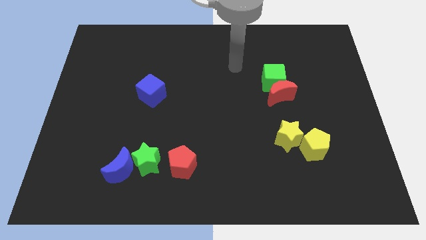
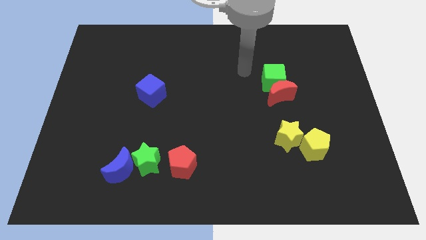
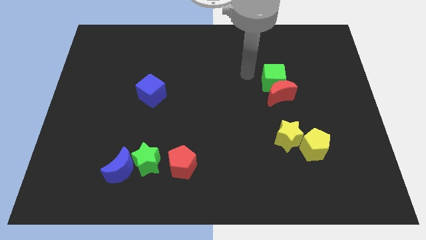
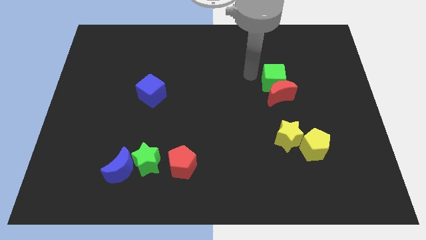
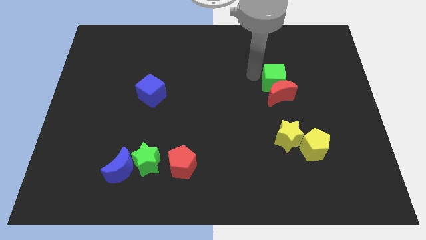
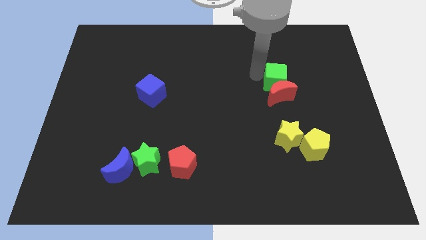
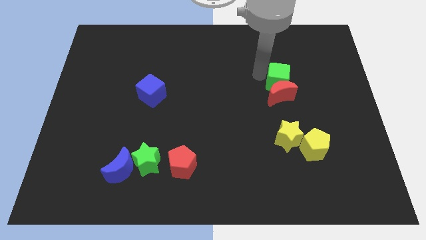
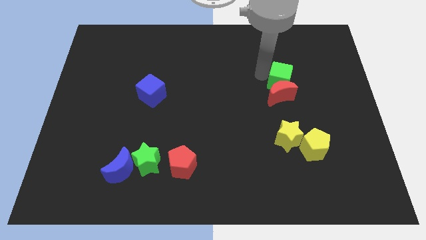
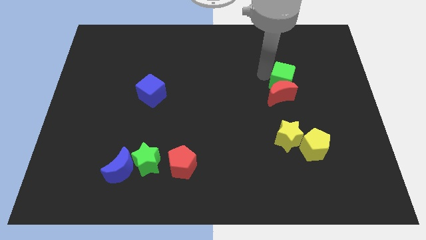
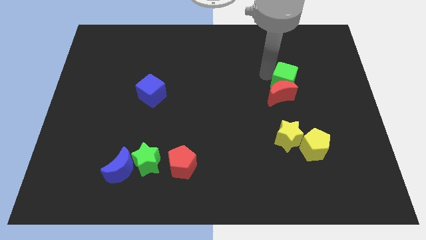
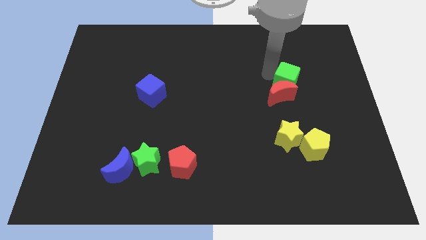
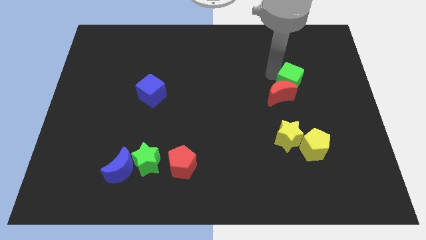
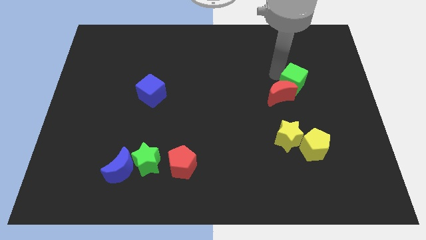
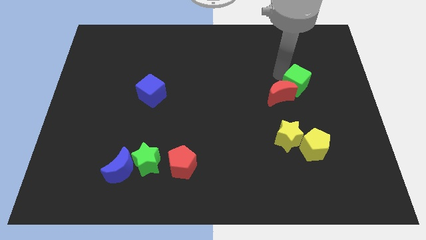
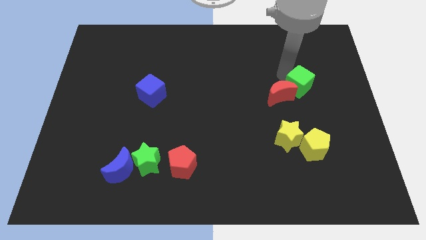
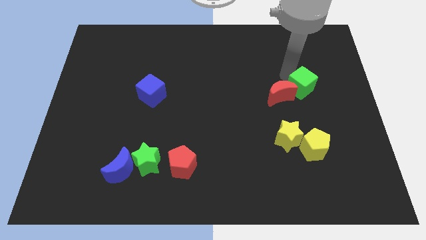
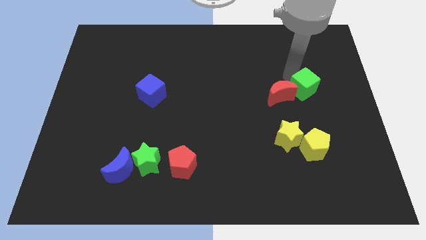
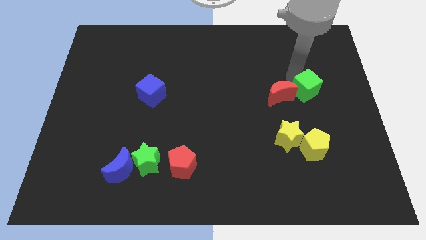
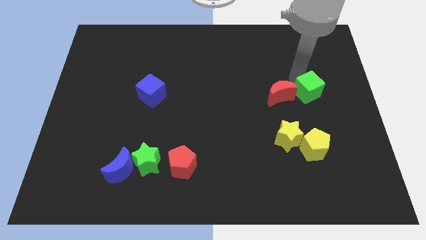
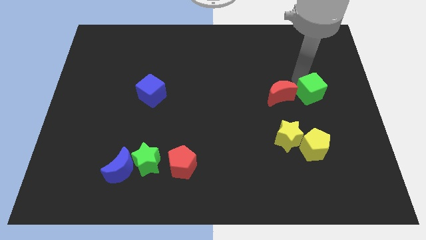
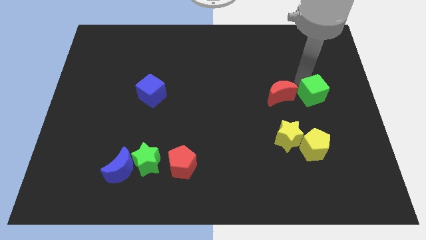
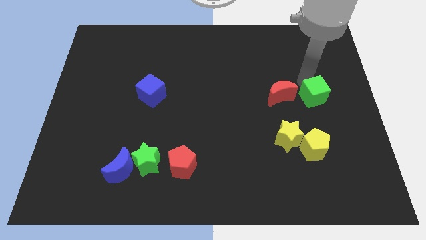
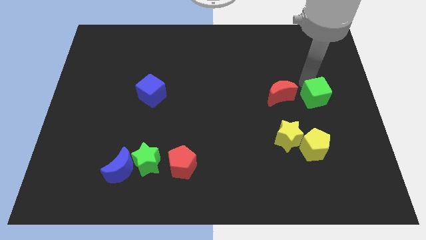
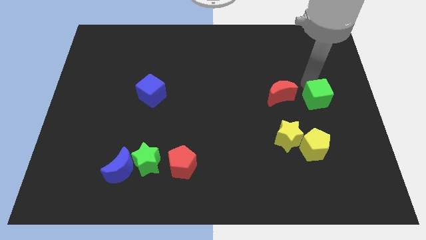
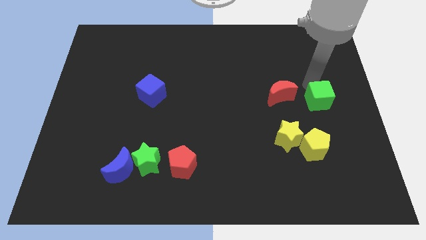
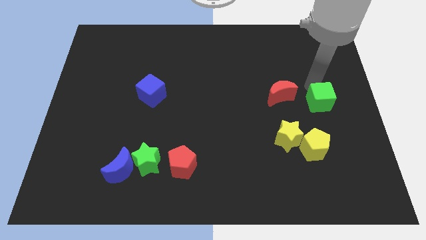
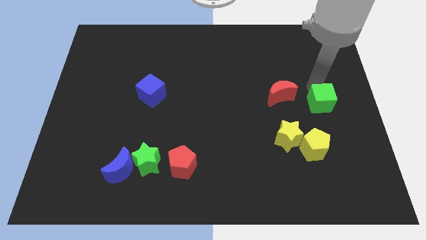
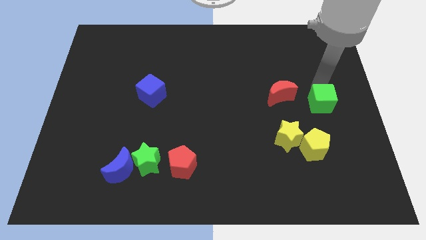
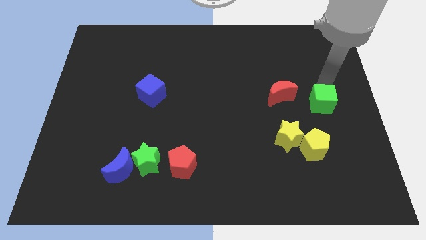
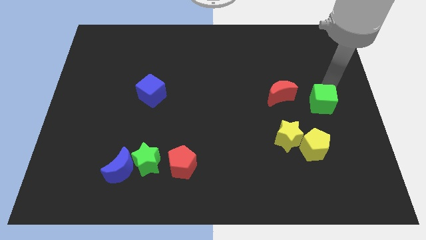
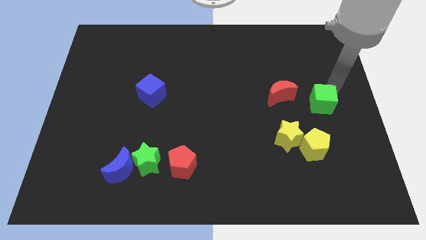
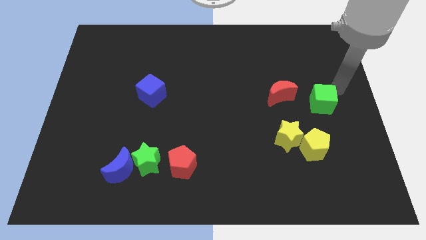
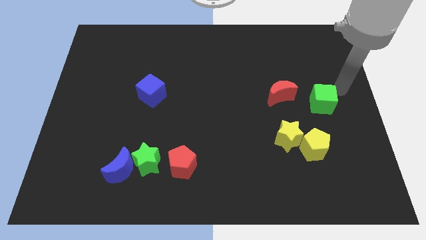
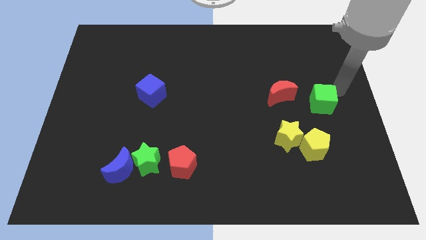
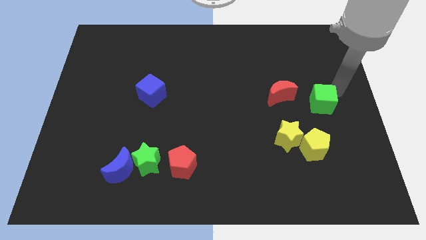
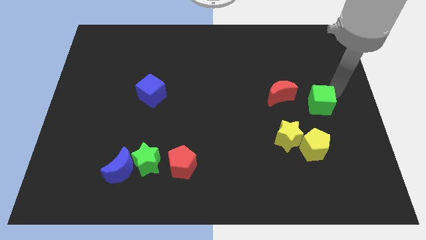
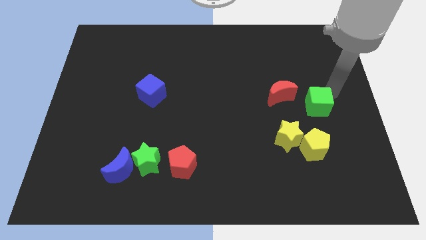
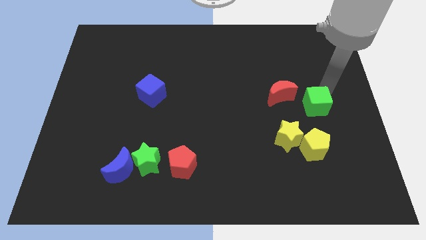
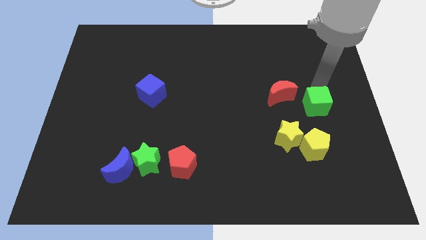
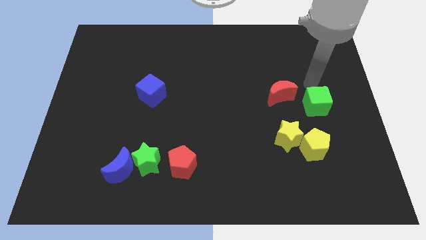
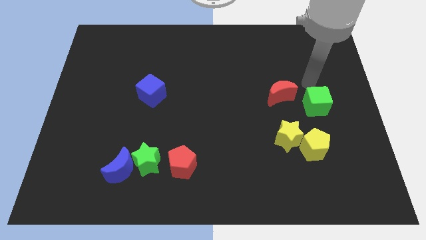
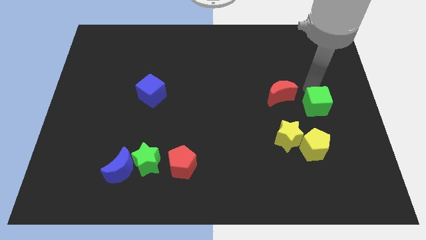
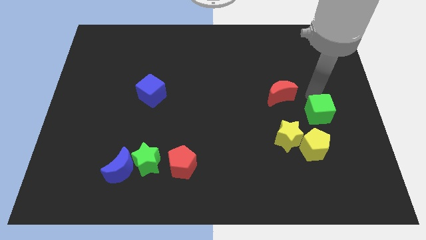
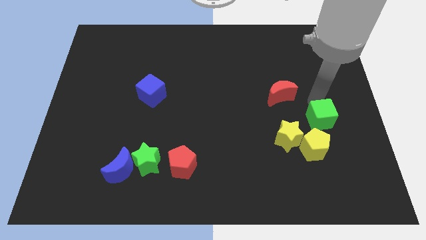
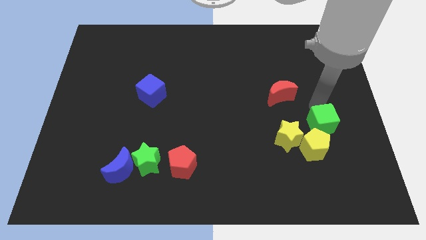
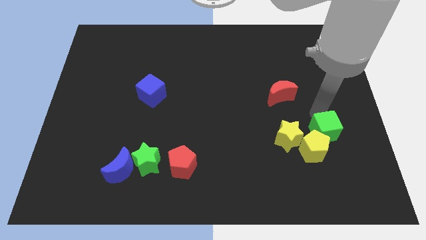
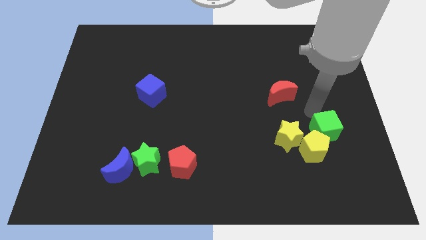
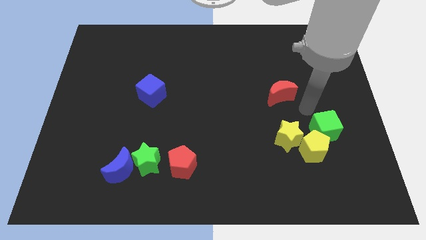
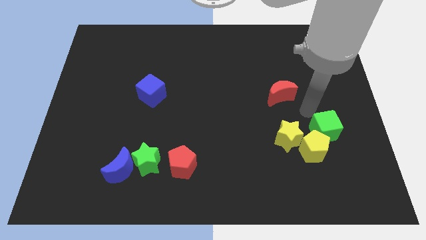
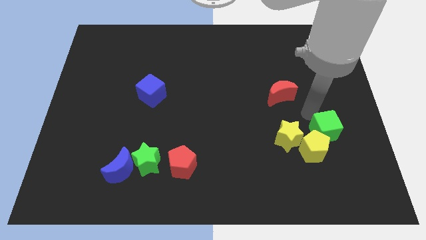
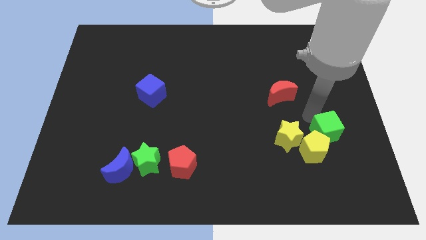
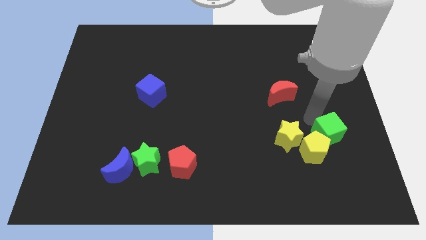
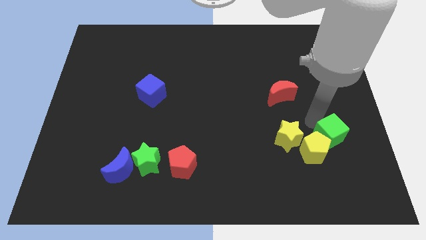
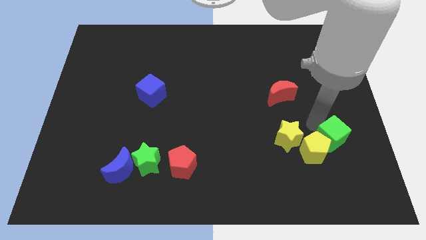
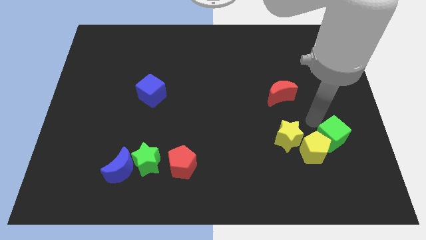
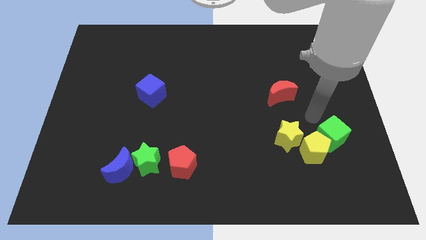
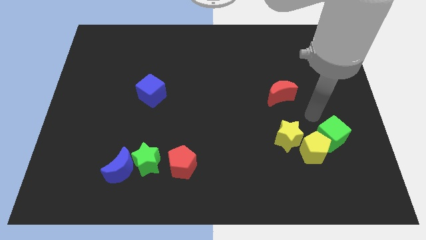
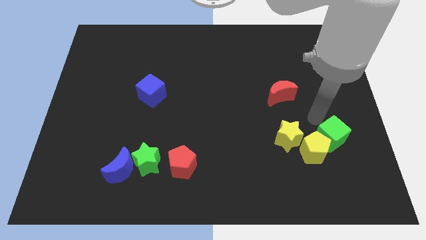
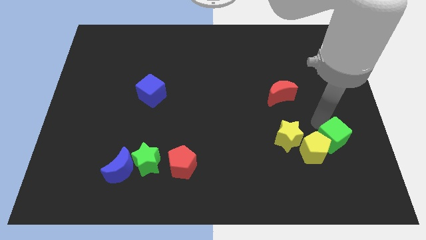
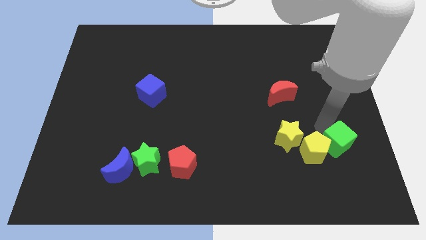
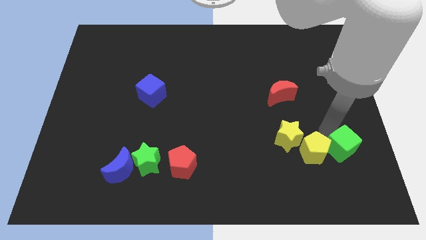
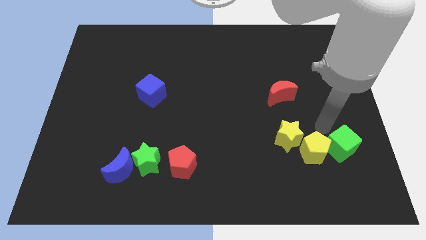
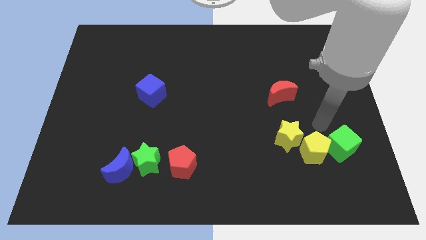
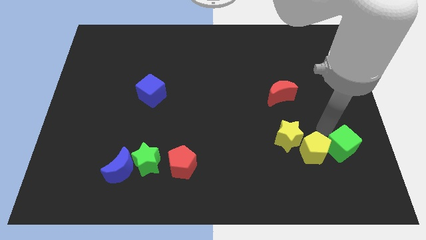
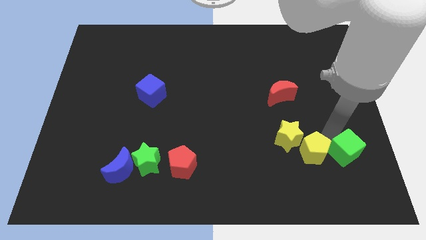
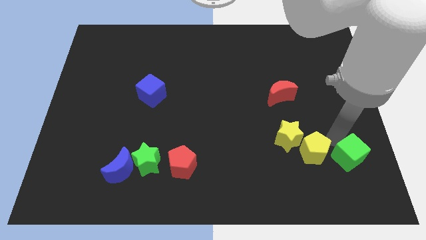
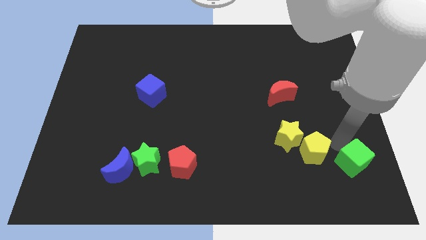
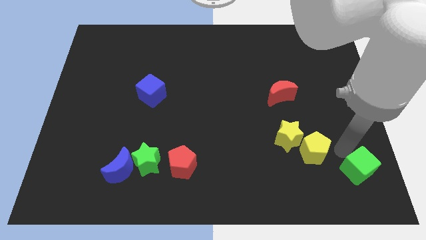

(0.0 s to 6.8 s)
slide the green cube to the bottom right
